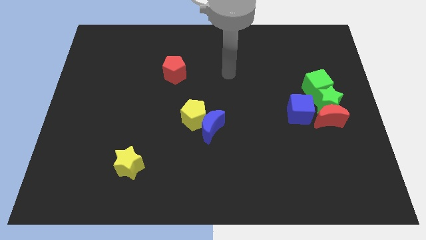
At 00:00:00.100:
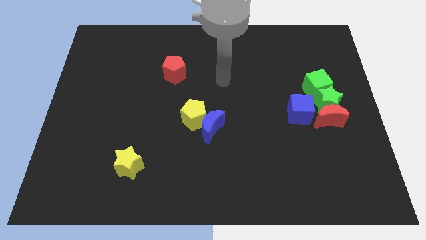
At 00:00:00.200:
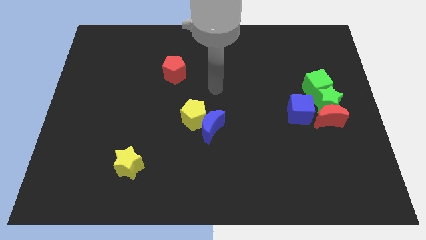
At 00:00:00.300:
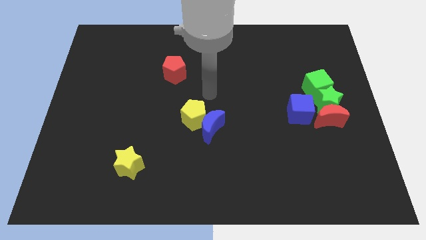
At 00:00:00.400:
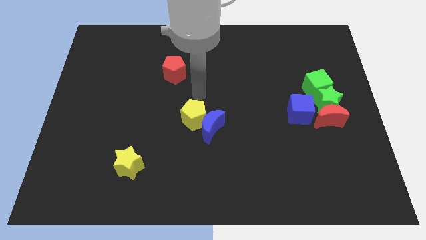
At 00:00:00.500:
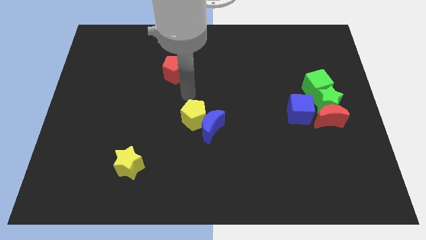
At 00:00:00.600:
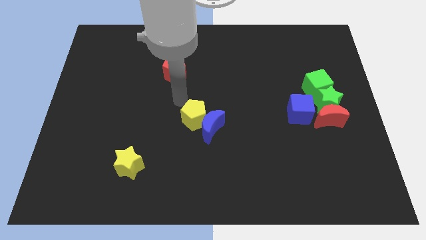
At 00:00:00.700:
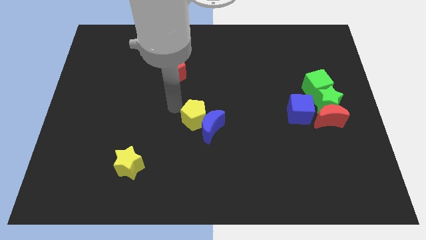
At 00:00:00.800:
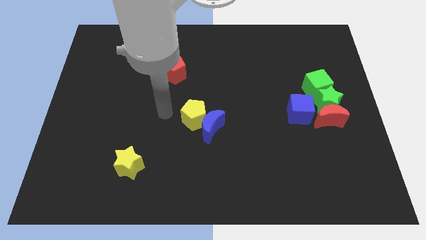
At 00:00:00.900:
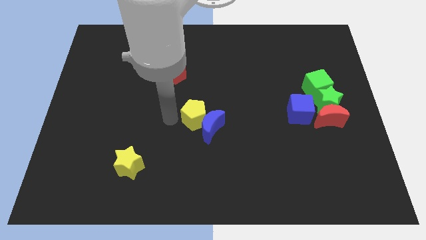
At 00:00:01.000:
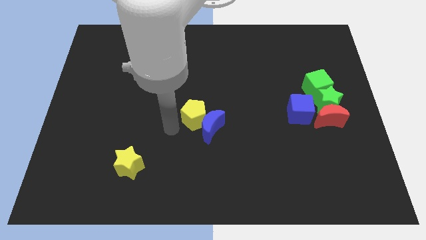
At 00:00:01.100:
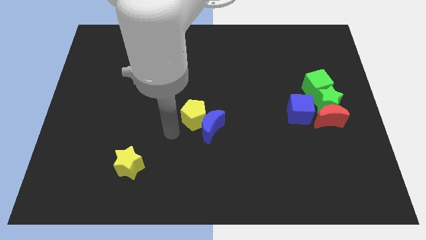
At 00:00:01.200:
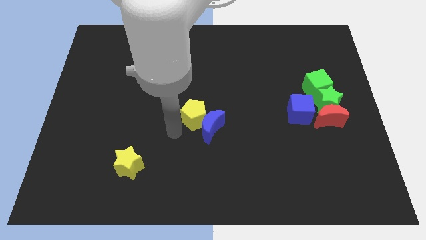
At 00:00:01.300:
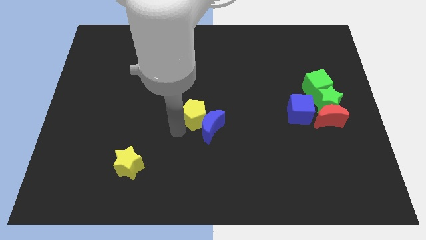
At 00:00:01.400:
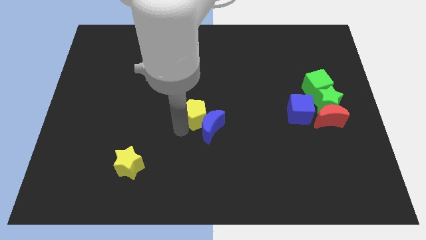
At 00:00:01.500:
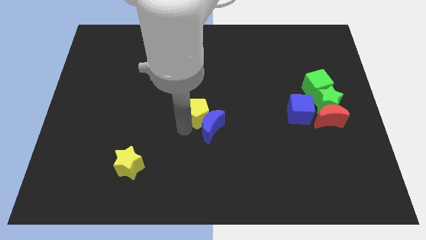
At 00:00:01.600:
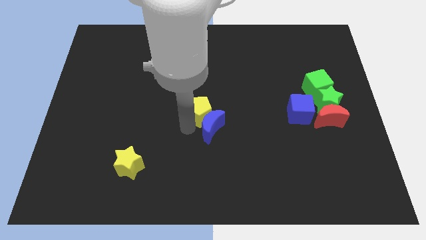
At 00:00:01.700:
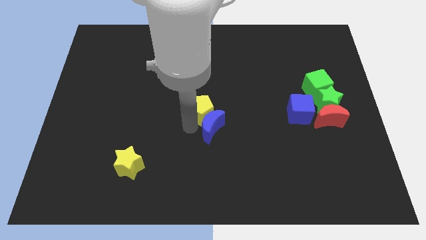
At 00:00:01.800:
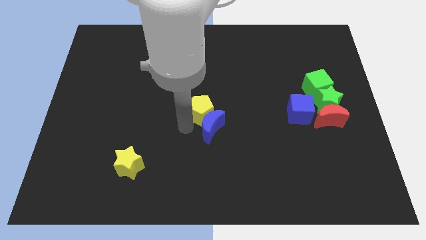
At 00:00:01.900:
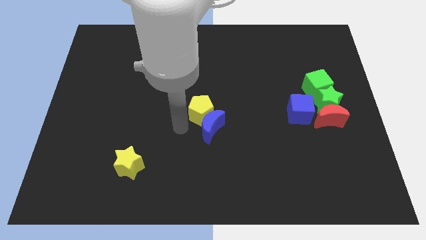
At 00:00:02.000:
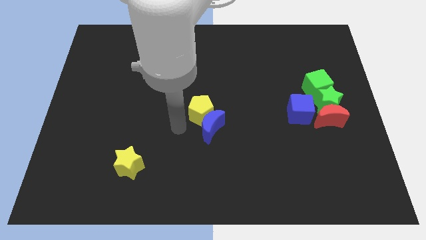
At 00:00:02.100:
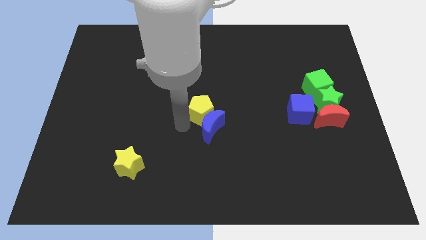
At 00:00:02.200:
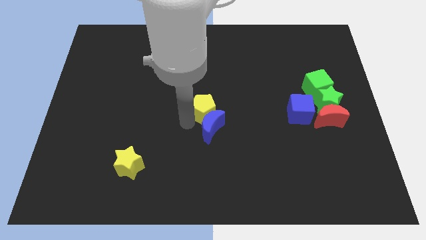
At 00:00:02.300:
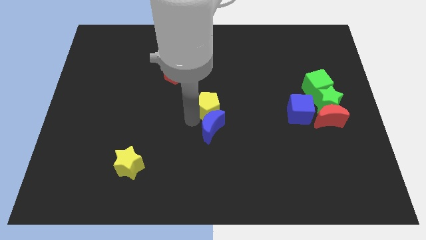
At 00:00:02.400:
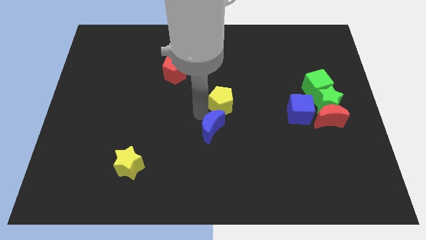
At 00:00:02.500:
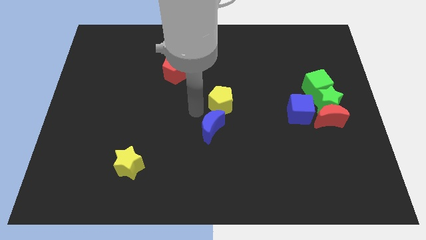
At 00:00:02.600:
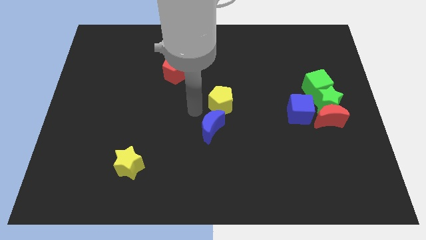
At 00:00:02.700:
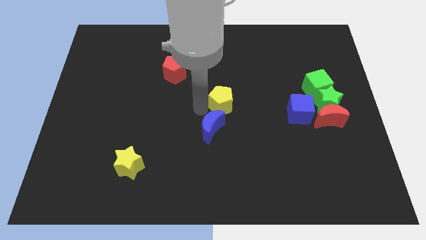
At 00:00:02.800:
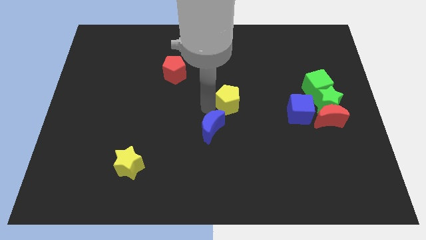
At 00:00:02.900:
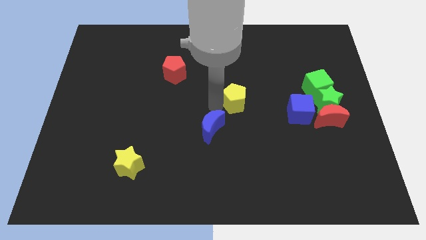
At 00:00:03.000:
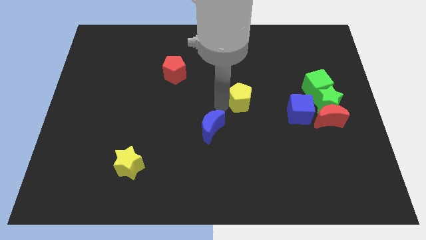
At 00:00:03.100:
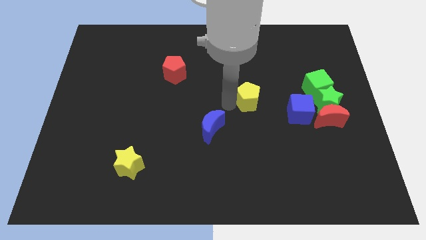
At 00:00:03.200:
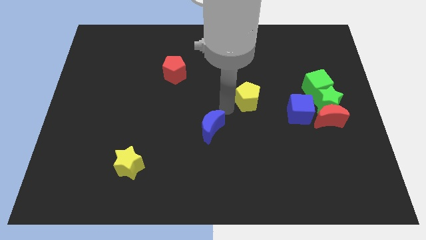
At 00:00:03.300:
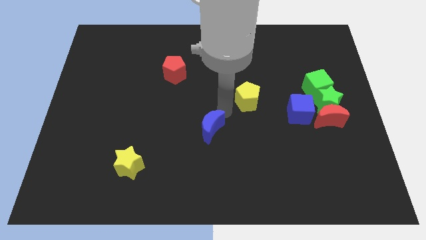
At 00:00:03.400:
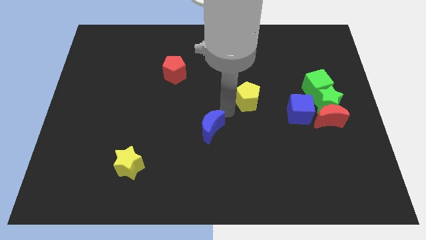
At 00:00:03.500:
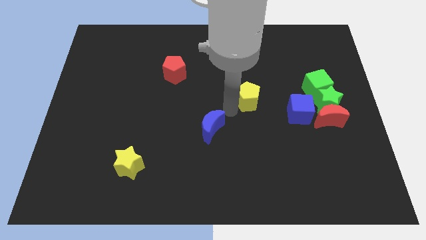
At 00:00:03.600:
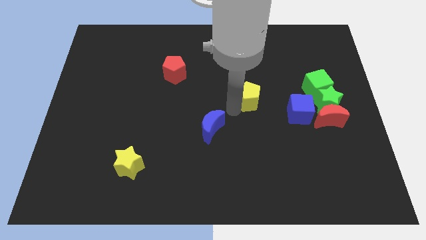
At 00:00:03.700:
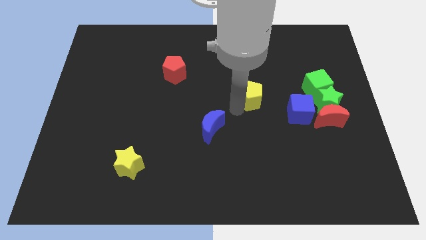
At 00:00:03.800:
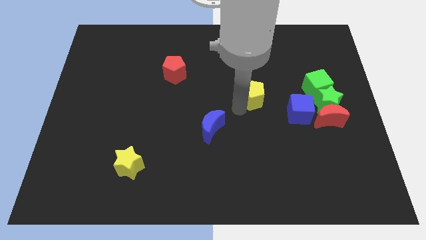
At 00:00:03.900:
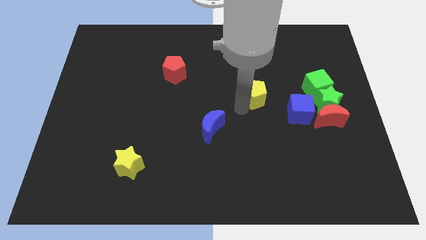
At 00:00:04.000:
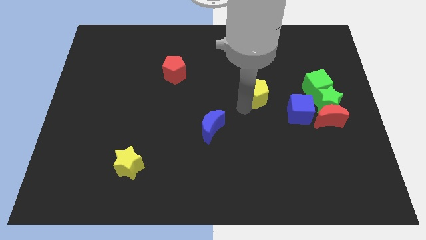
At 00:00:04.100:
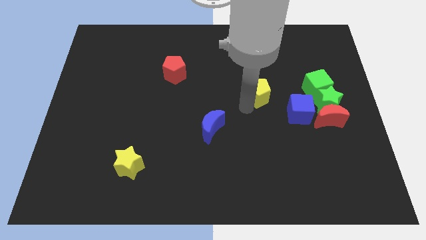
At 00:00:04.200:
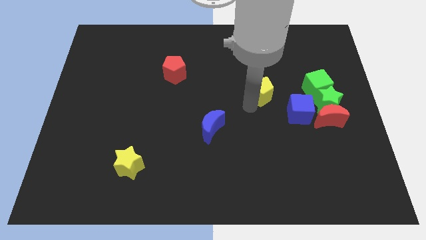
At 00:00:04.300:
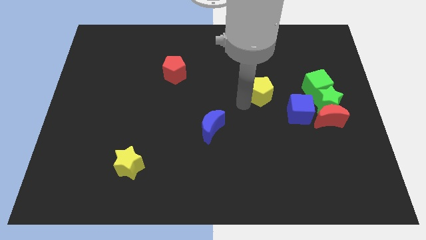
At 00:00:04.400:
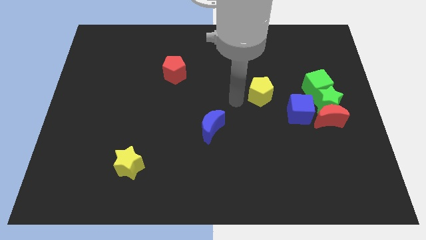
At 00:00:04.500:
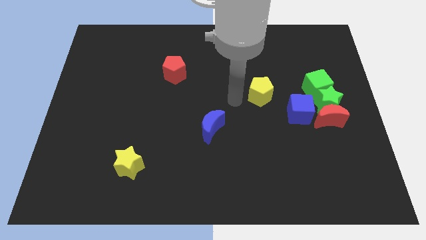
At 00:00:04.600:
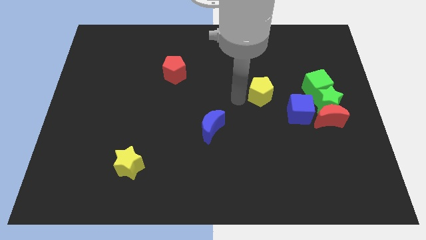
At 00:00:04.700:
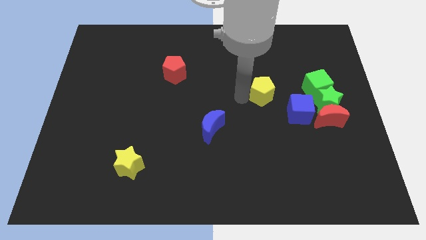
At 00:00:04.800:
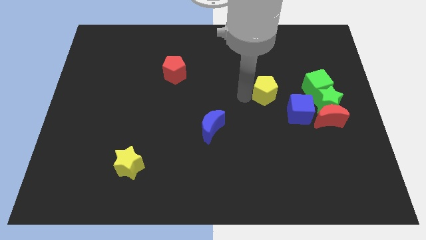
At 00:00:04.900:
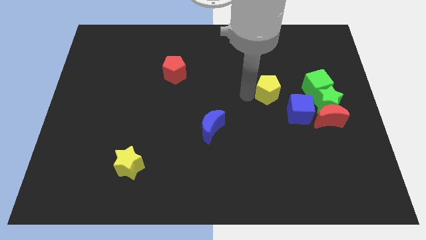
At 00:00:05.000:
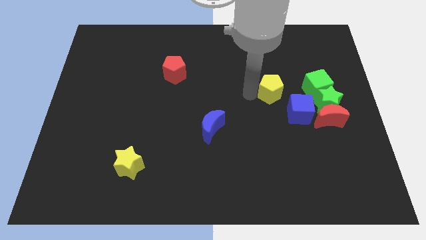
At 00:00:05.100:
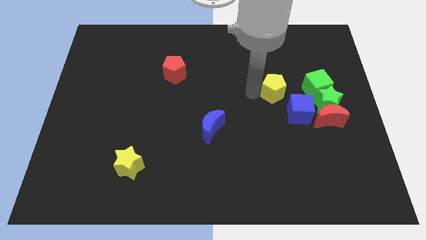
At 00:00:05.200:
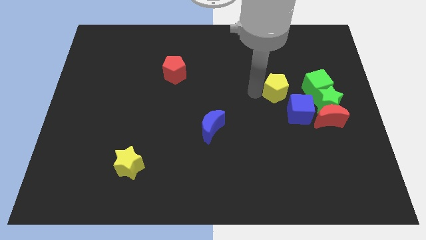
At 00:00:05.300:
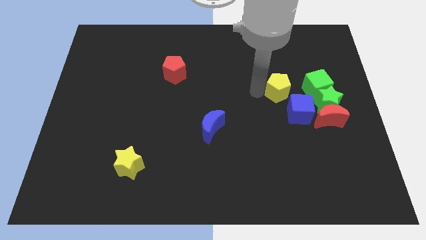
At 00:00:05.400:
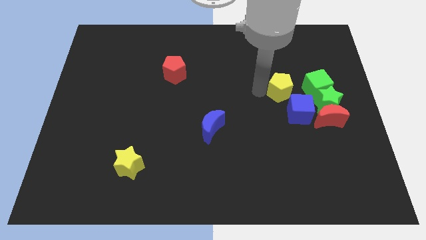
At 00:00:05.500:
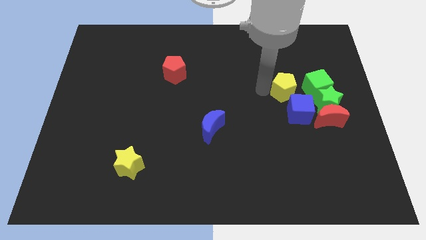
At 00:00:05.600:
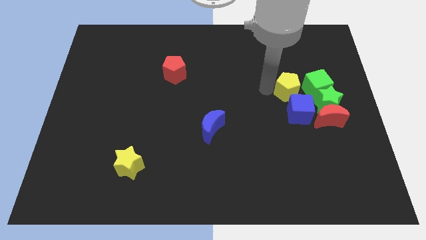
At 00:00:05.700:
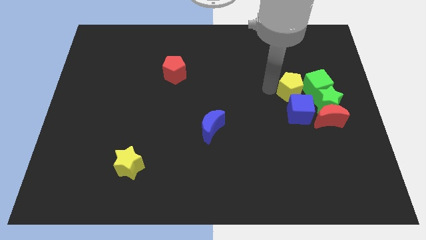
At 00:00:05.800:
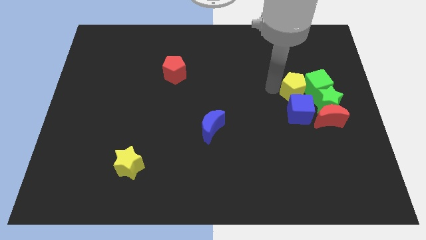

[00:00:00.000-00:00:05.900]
move the yellow pentagon towards the green cube
